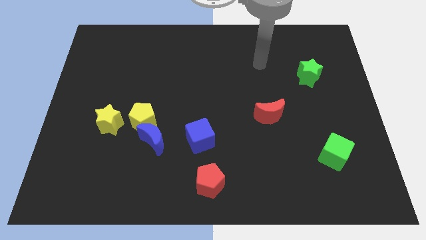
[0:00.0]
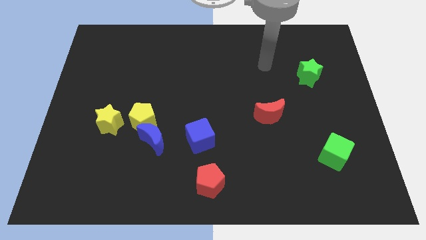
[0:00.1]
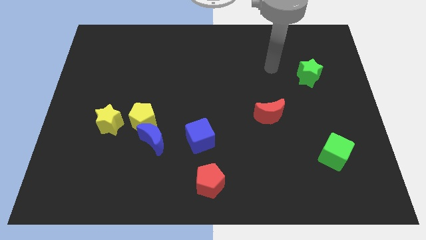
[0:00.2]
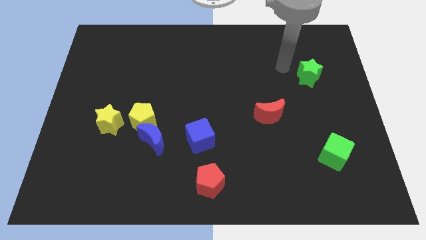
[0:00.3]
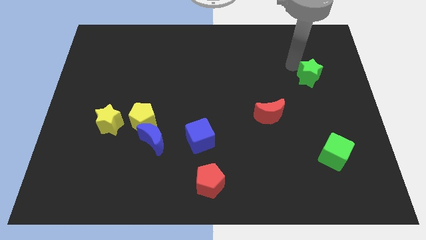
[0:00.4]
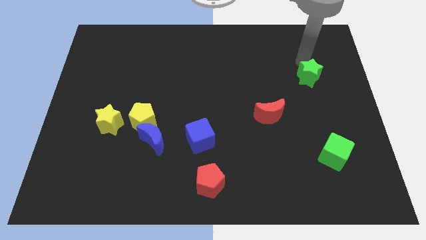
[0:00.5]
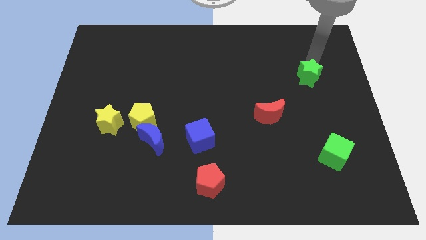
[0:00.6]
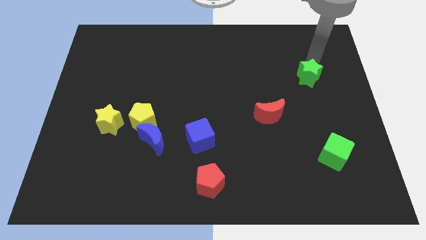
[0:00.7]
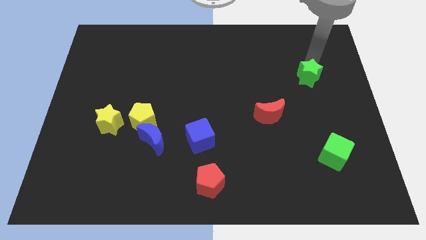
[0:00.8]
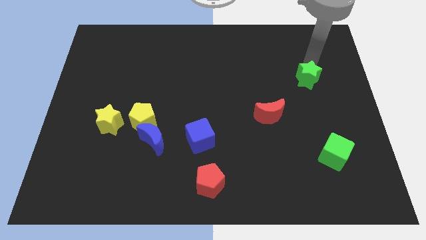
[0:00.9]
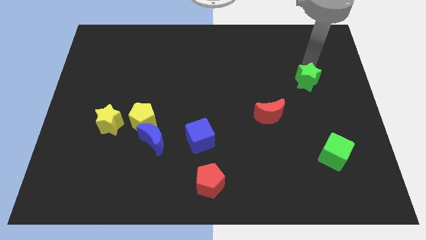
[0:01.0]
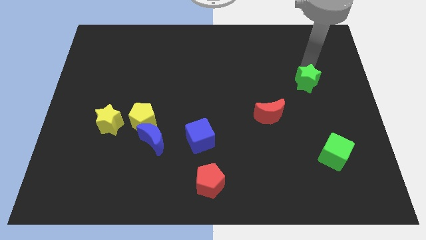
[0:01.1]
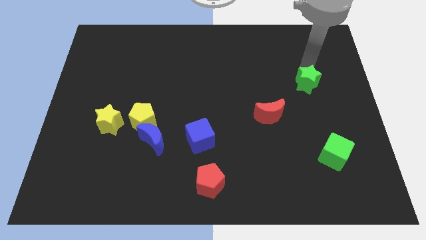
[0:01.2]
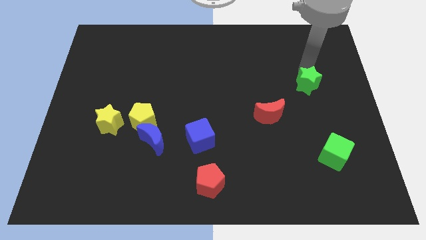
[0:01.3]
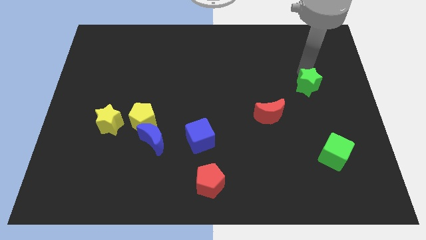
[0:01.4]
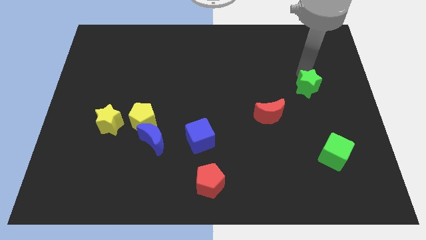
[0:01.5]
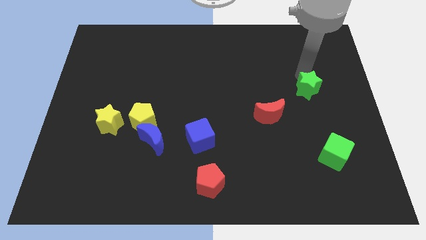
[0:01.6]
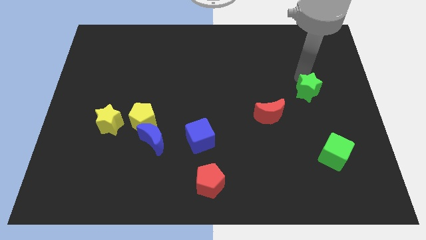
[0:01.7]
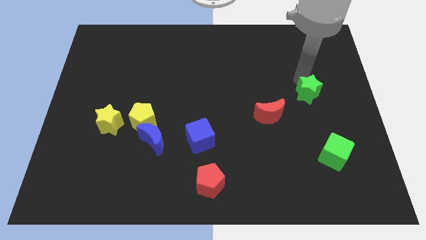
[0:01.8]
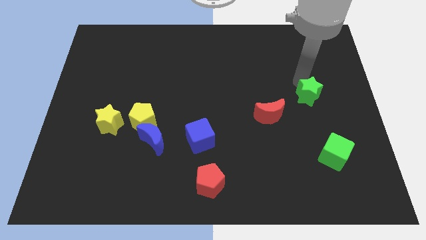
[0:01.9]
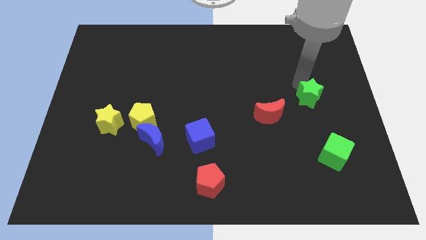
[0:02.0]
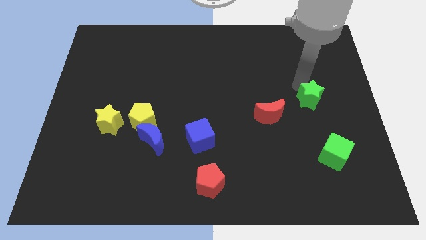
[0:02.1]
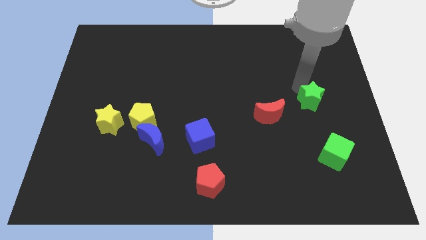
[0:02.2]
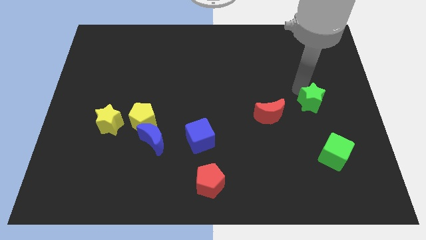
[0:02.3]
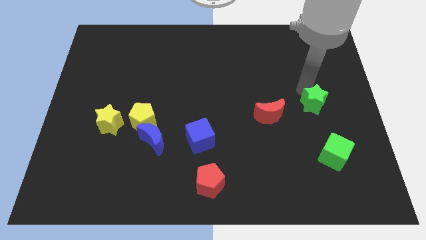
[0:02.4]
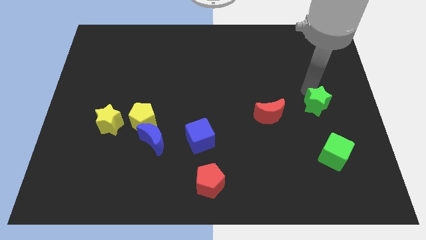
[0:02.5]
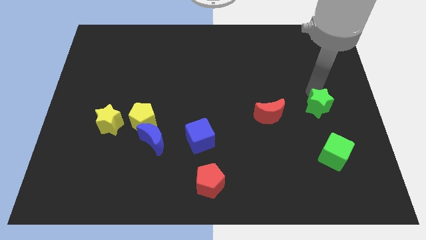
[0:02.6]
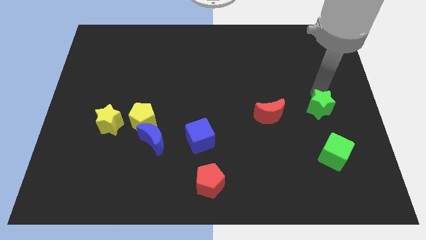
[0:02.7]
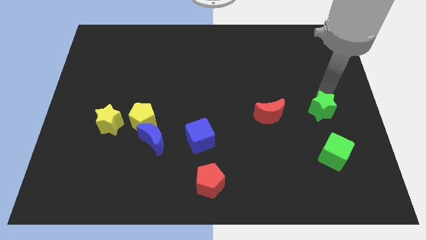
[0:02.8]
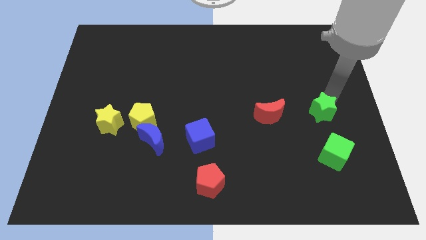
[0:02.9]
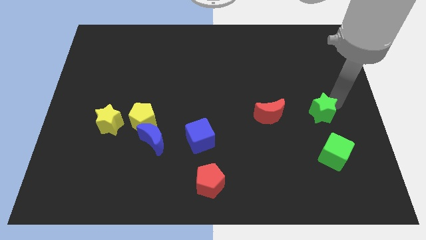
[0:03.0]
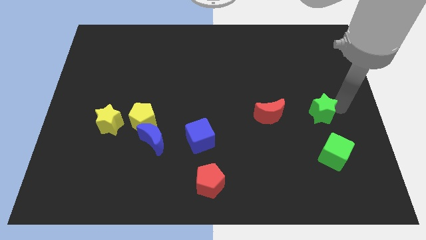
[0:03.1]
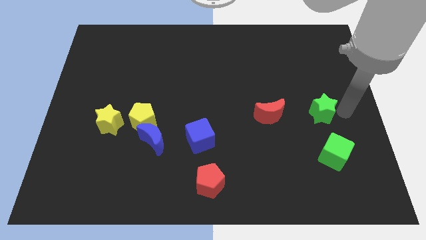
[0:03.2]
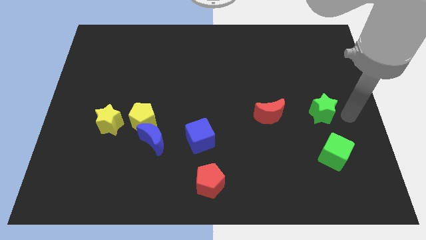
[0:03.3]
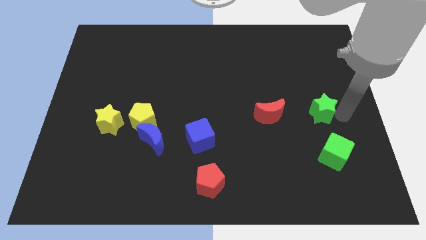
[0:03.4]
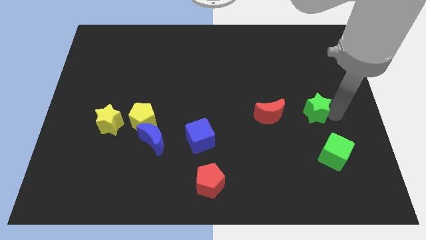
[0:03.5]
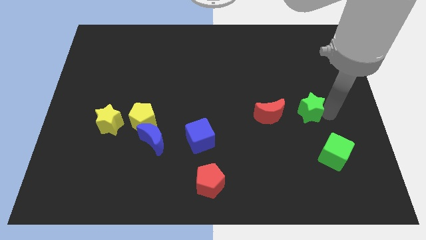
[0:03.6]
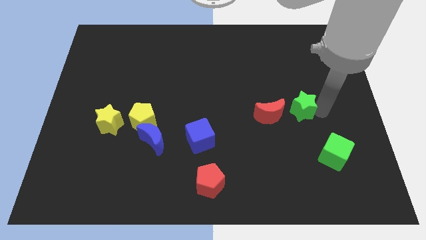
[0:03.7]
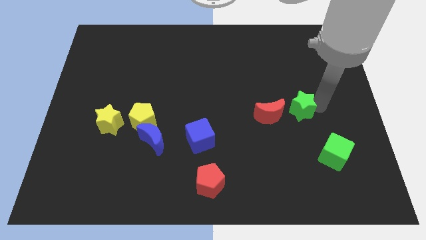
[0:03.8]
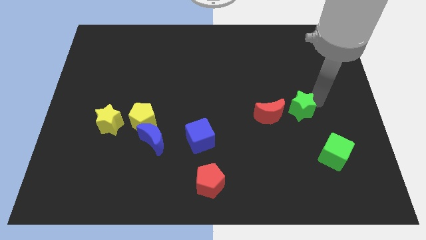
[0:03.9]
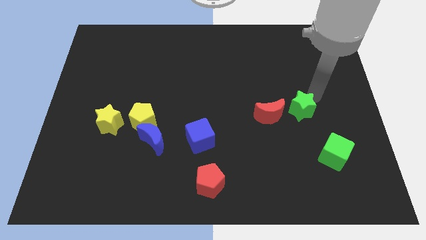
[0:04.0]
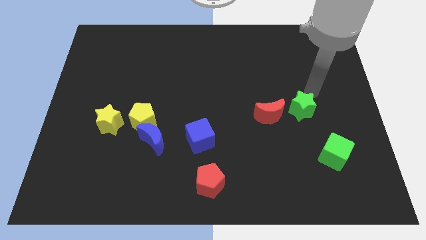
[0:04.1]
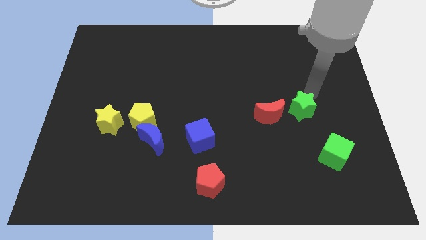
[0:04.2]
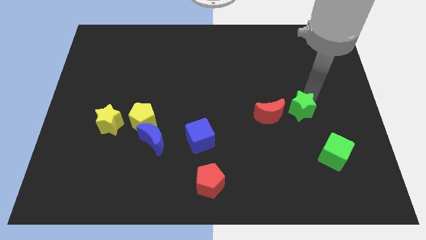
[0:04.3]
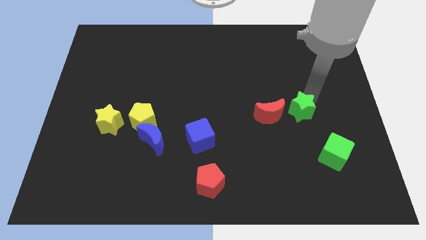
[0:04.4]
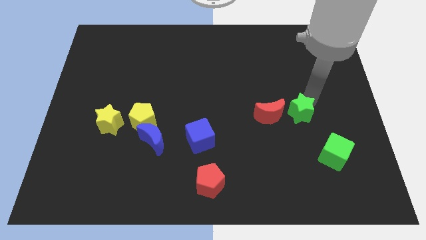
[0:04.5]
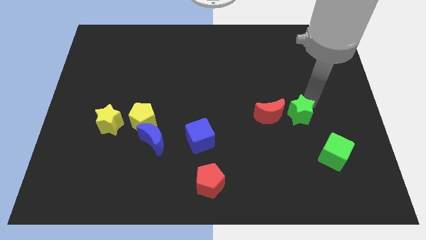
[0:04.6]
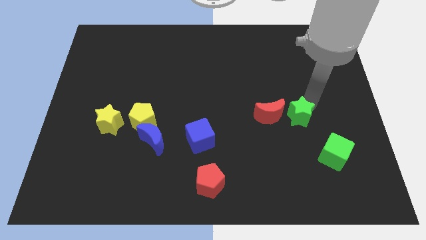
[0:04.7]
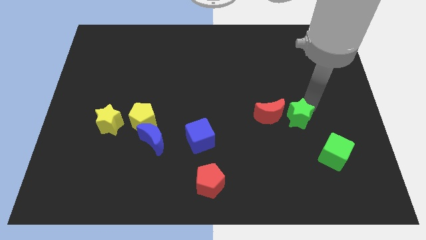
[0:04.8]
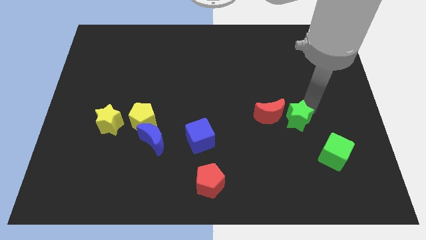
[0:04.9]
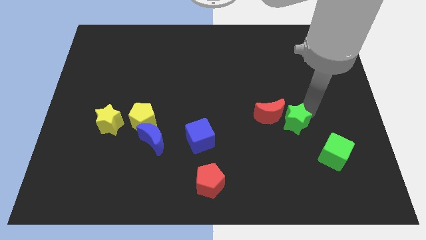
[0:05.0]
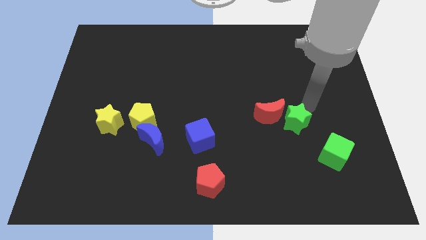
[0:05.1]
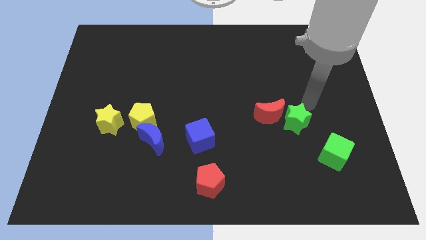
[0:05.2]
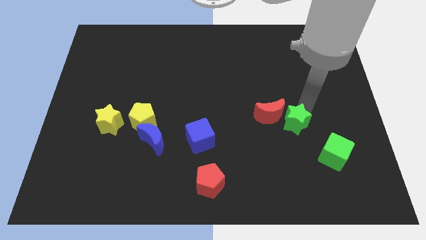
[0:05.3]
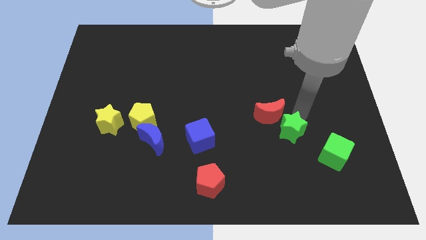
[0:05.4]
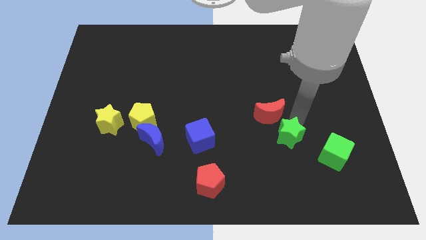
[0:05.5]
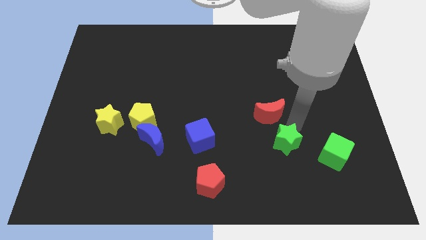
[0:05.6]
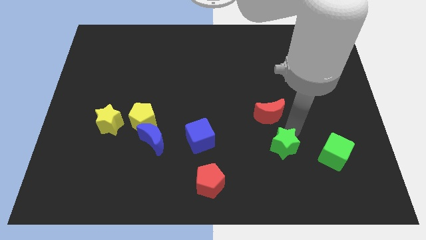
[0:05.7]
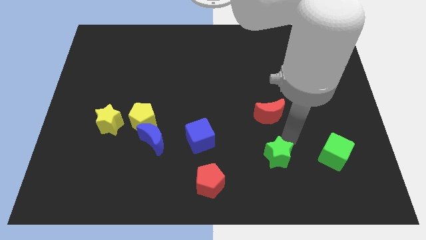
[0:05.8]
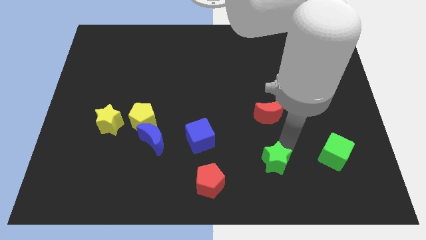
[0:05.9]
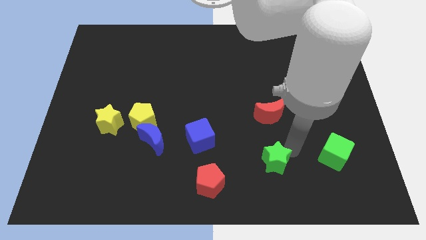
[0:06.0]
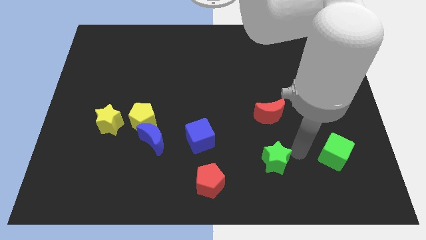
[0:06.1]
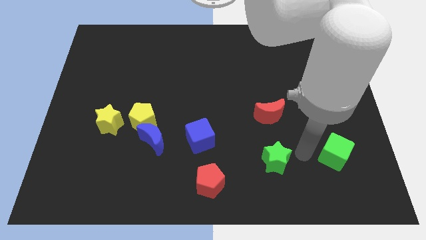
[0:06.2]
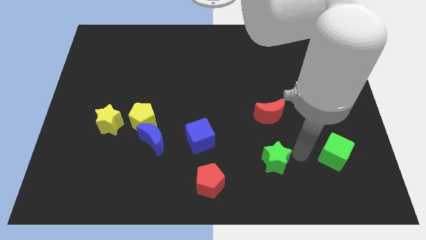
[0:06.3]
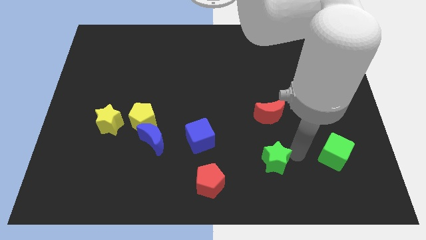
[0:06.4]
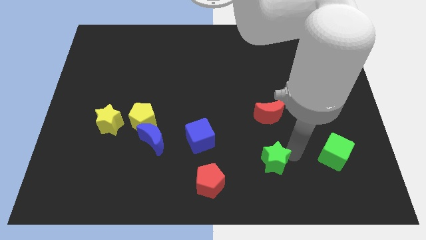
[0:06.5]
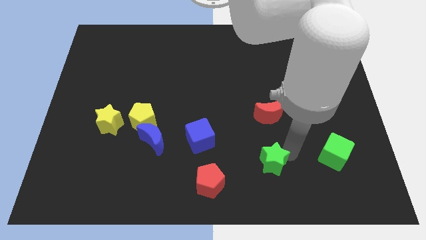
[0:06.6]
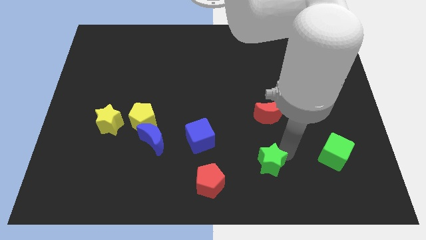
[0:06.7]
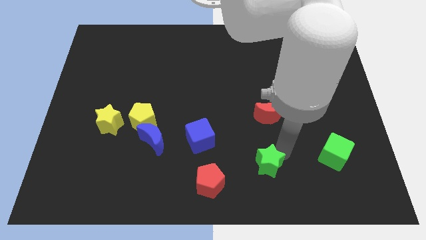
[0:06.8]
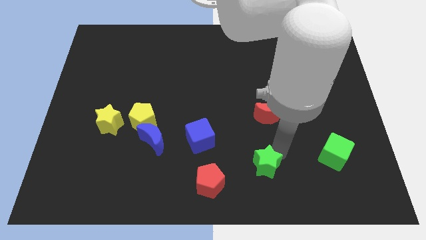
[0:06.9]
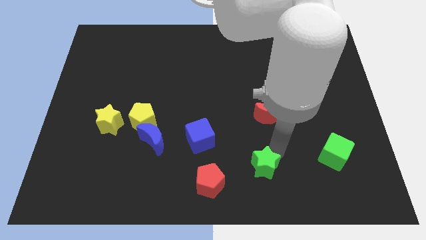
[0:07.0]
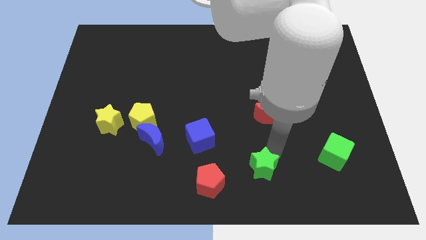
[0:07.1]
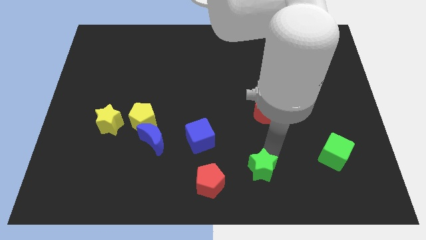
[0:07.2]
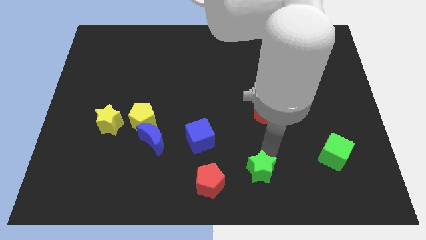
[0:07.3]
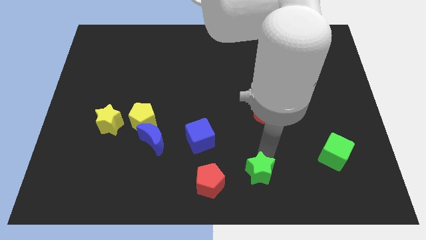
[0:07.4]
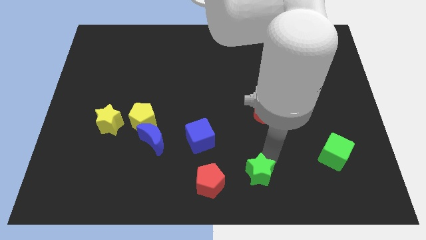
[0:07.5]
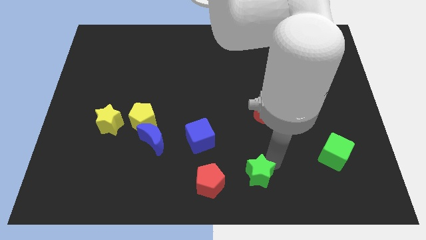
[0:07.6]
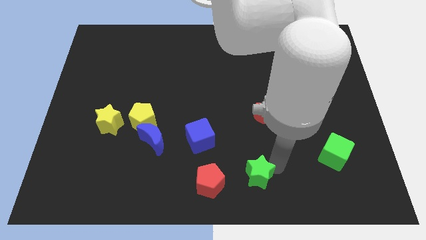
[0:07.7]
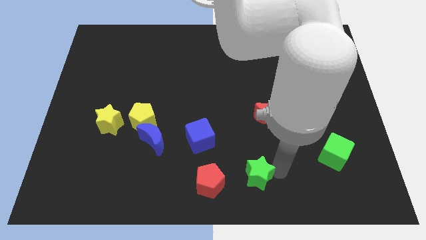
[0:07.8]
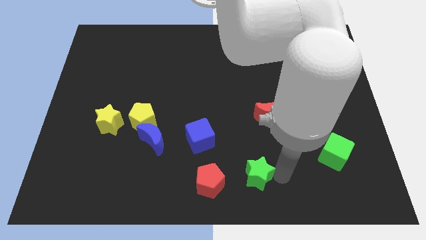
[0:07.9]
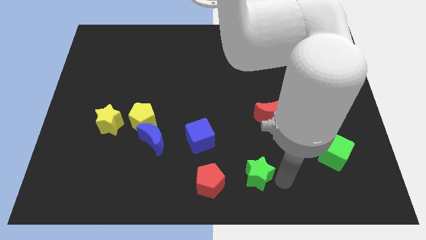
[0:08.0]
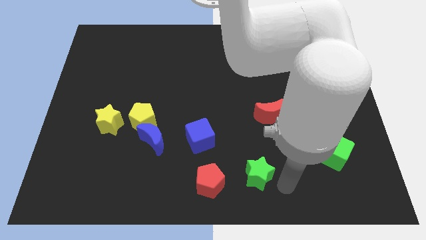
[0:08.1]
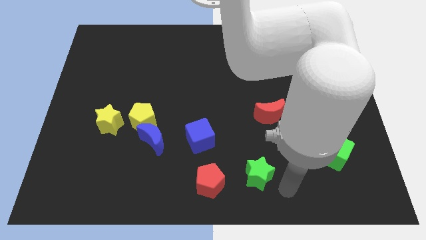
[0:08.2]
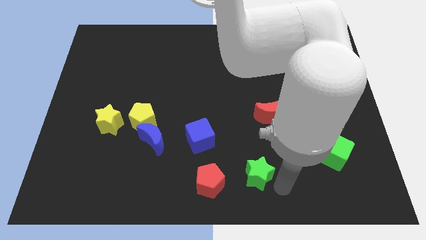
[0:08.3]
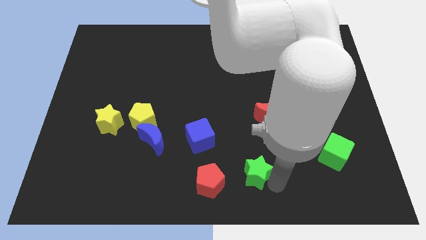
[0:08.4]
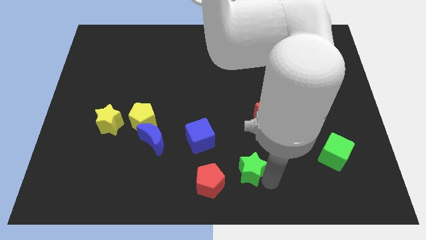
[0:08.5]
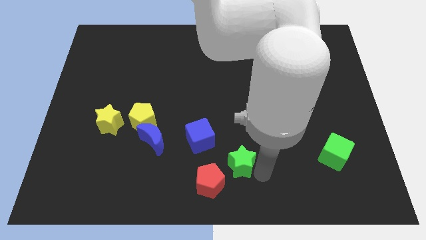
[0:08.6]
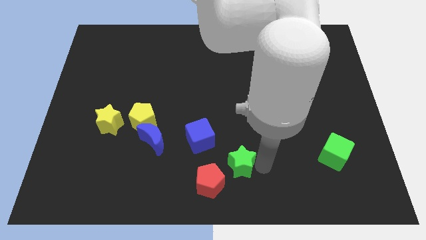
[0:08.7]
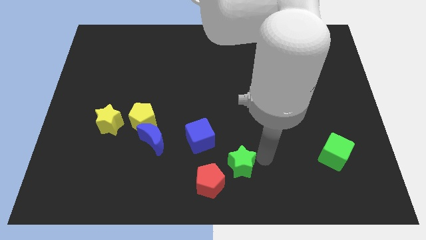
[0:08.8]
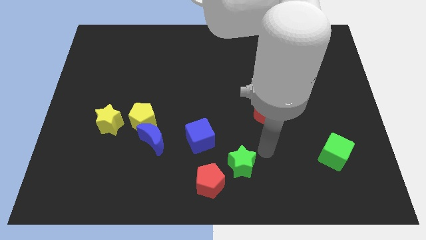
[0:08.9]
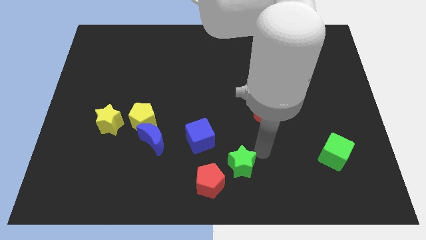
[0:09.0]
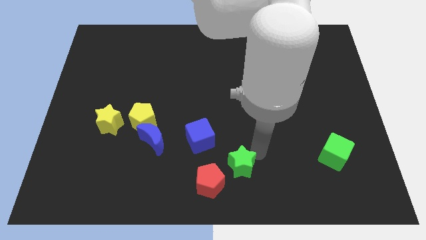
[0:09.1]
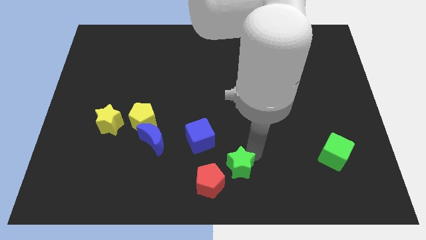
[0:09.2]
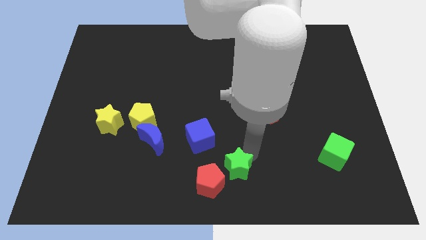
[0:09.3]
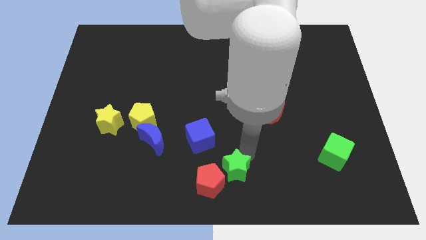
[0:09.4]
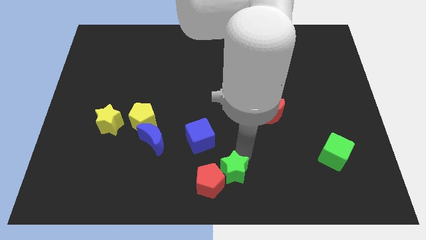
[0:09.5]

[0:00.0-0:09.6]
slide the green star to the red pentagon
